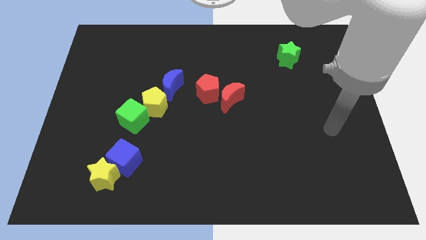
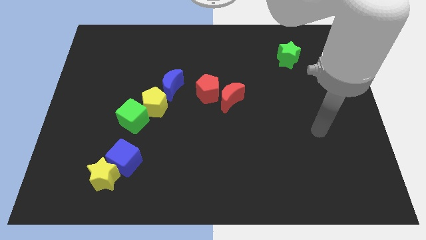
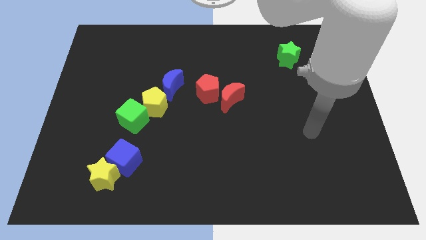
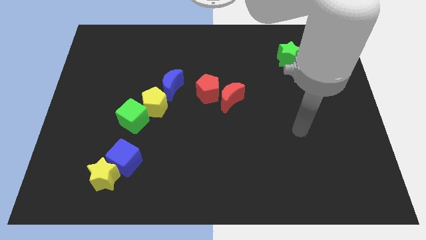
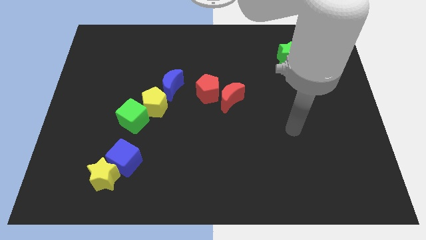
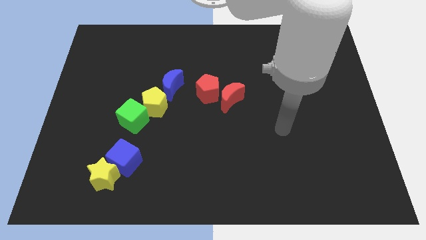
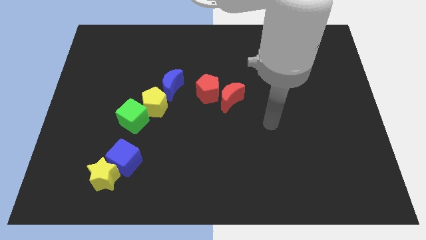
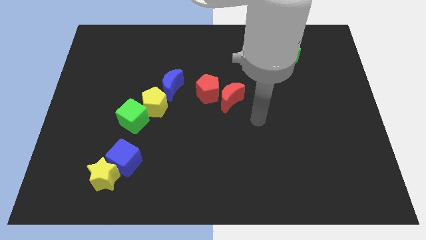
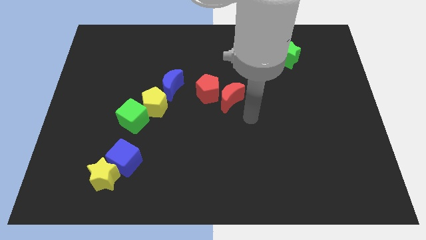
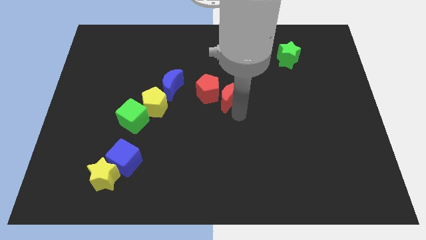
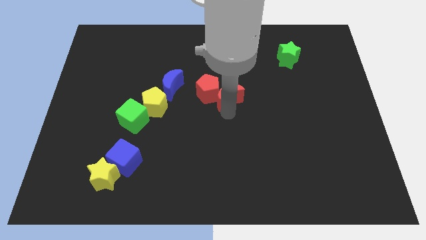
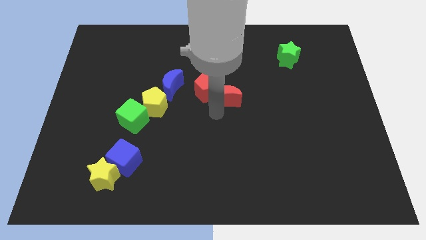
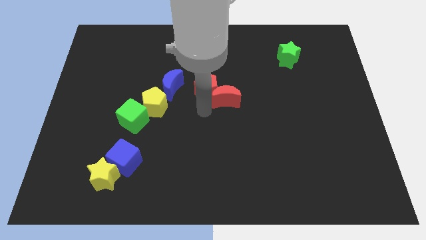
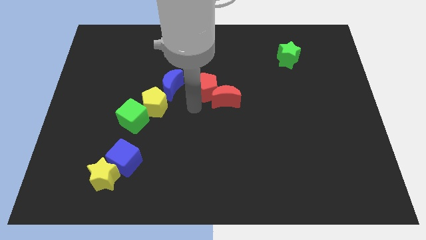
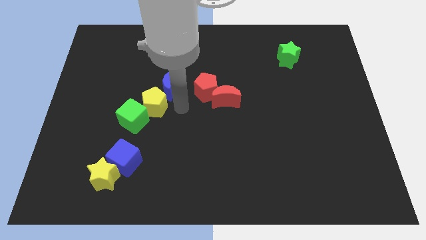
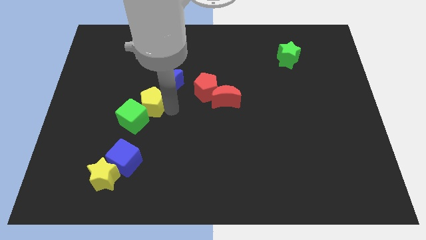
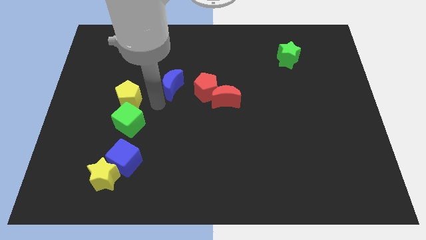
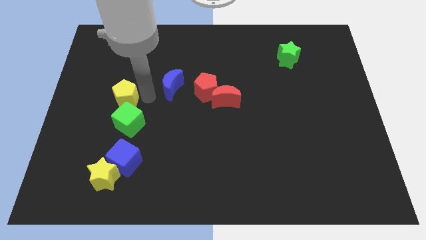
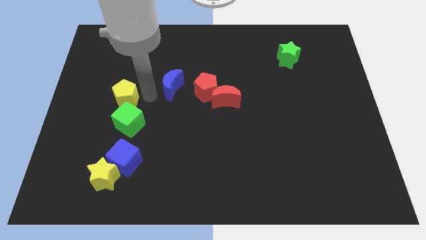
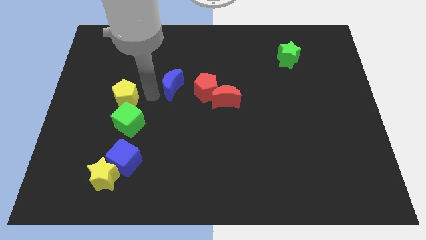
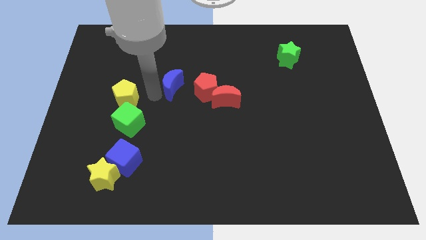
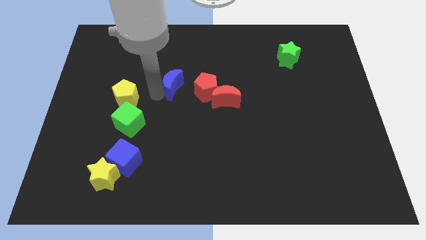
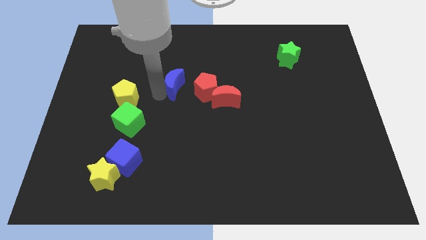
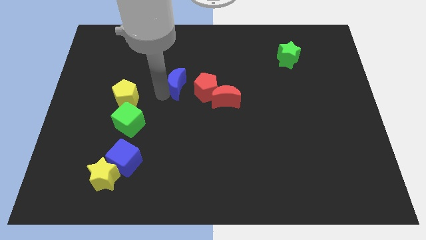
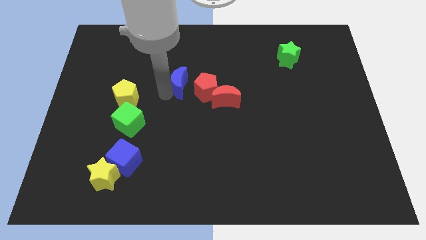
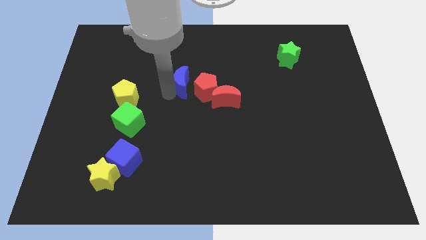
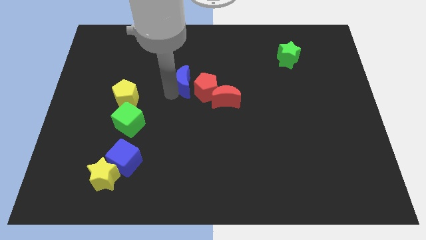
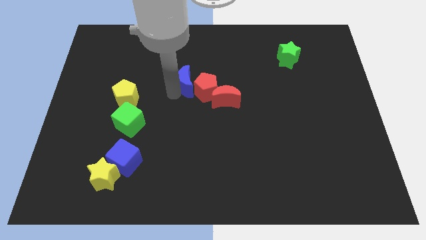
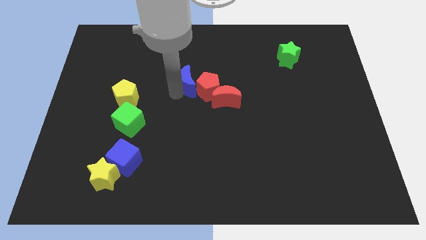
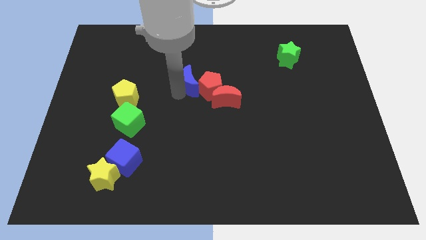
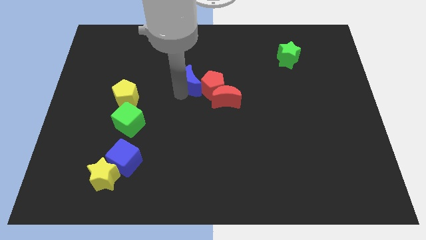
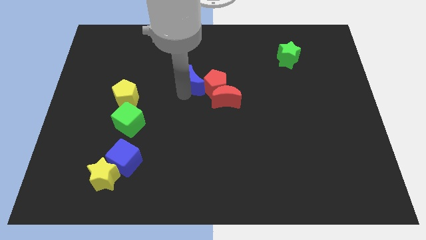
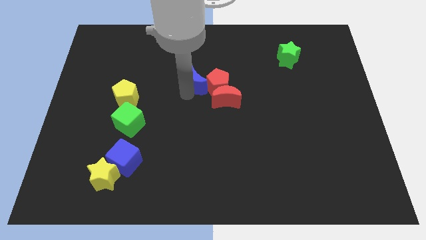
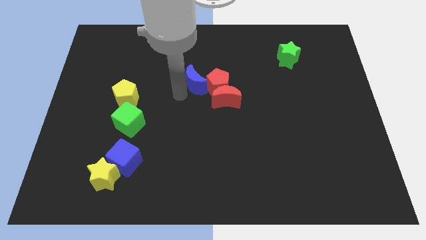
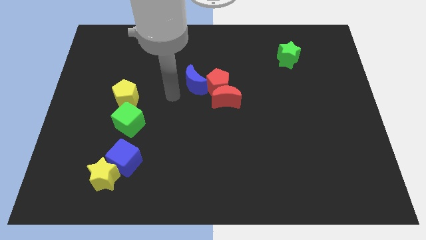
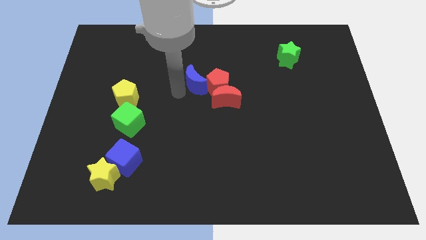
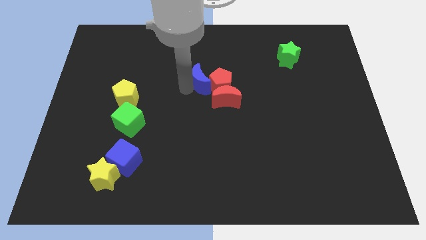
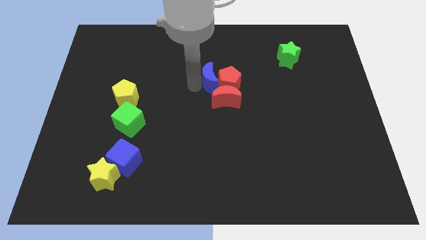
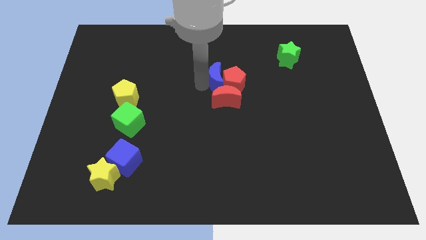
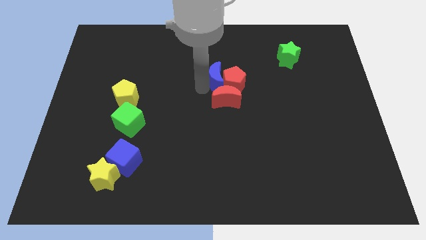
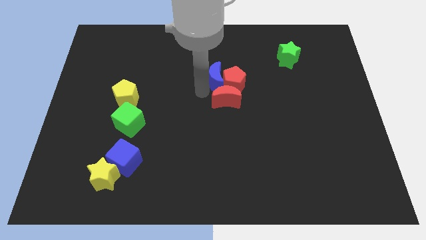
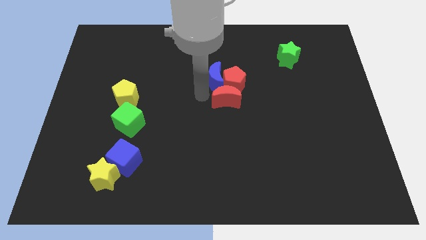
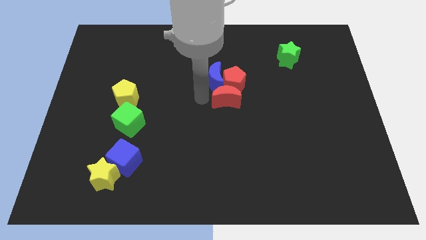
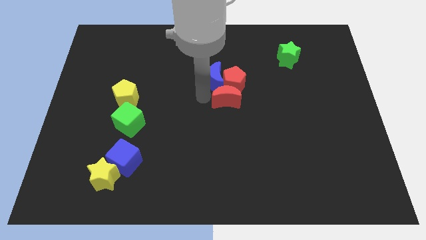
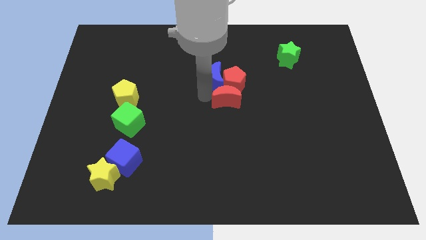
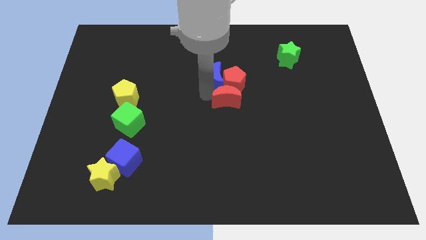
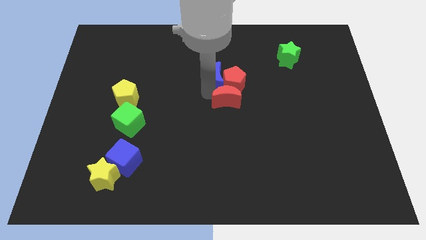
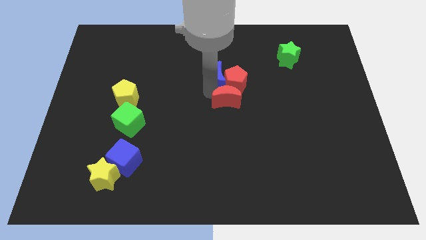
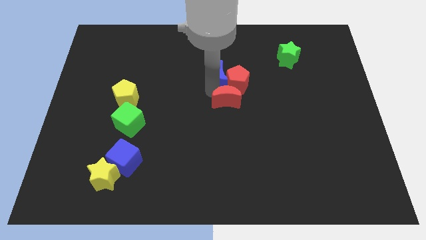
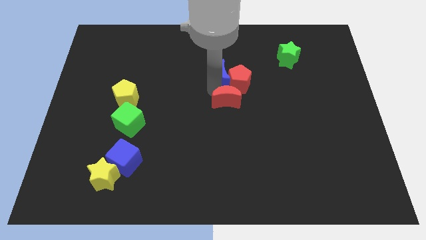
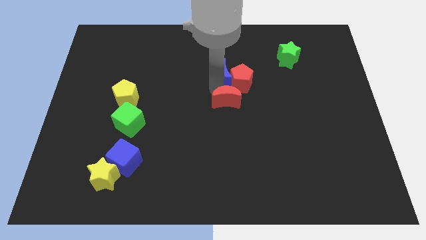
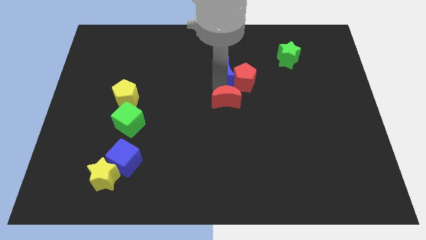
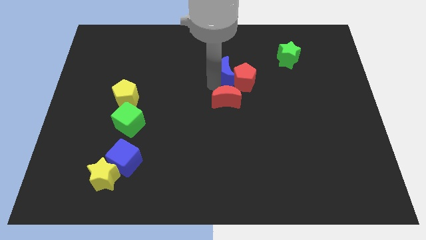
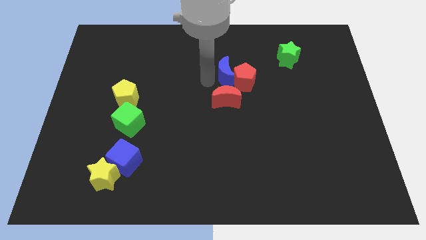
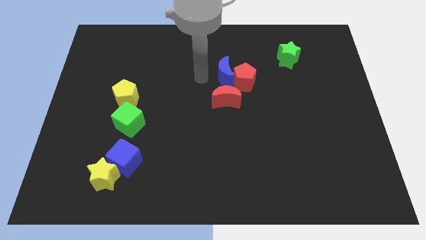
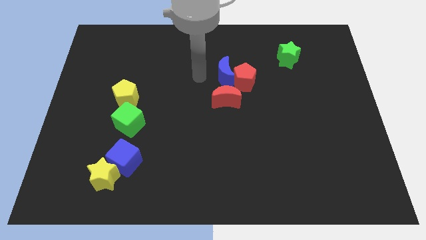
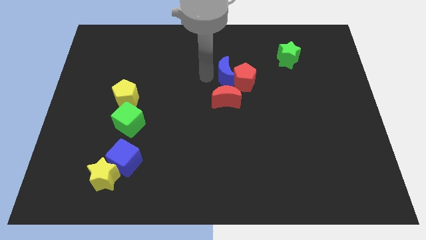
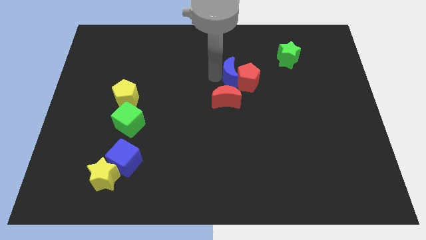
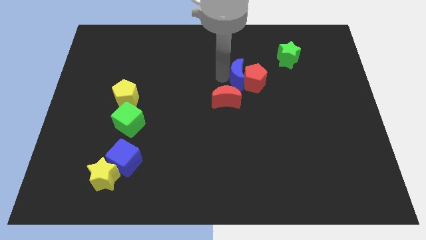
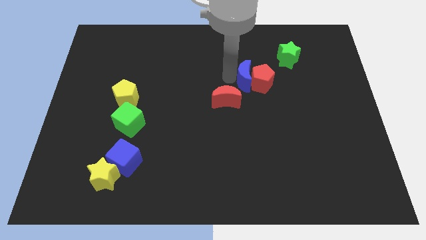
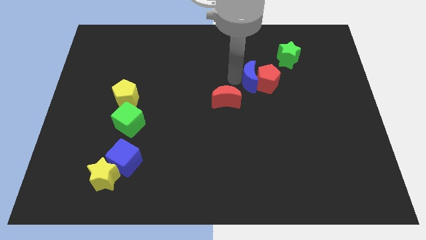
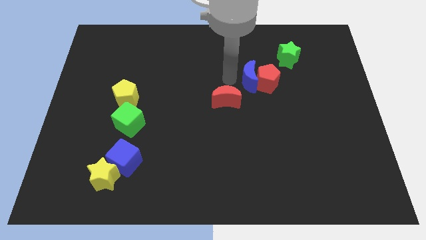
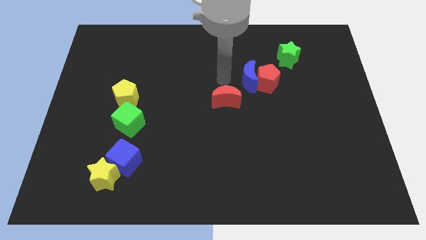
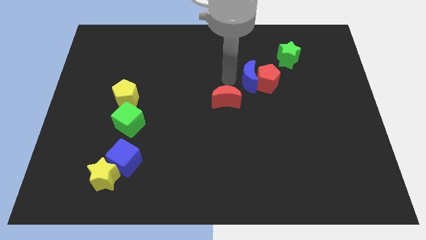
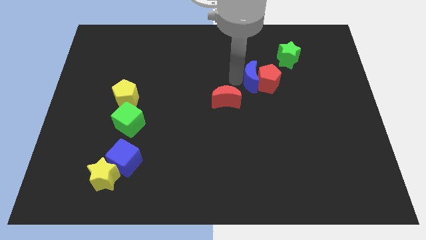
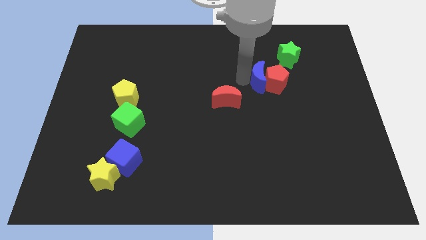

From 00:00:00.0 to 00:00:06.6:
slide the blue moon to the right

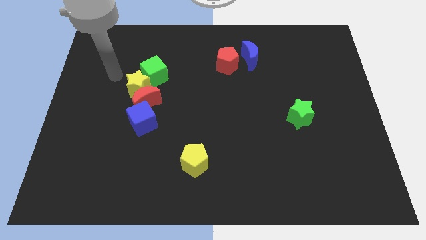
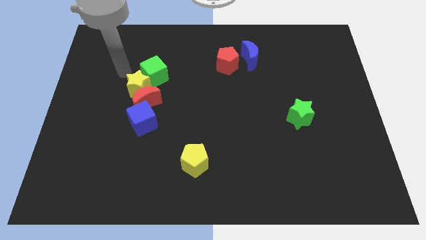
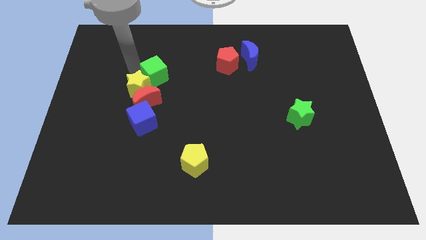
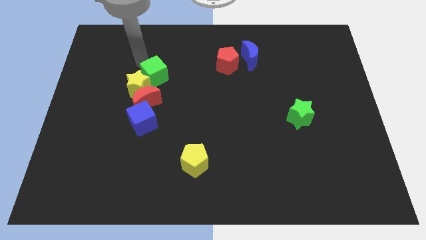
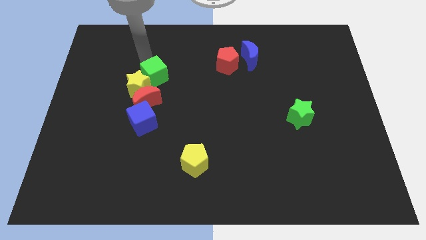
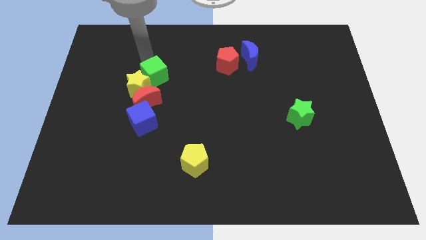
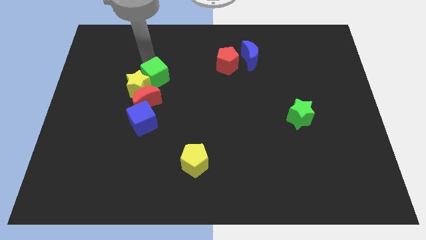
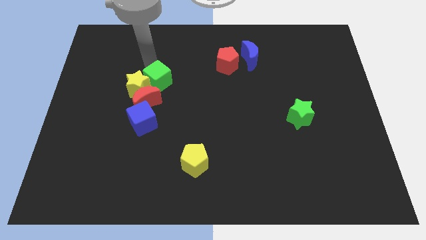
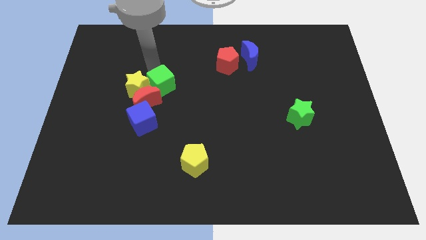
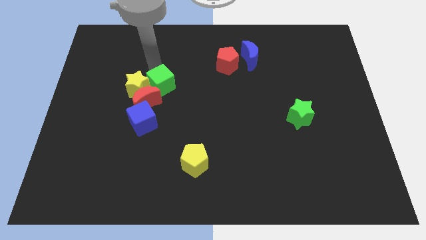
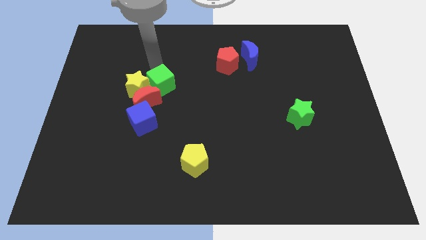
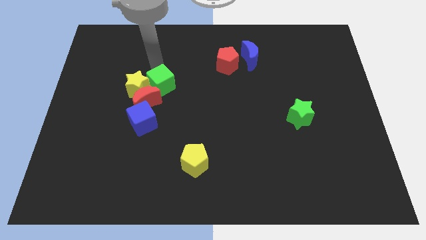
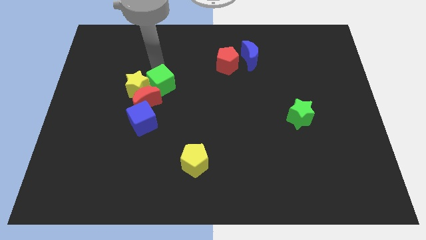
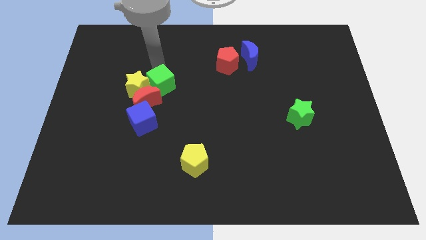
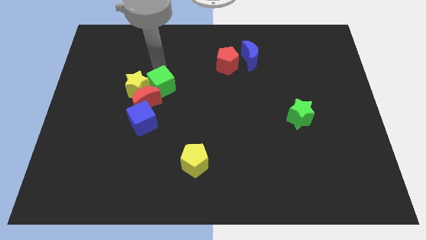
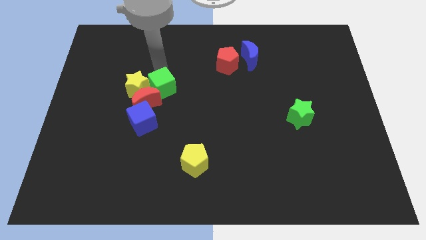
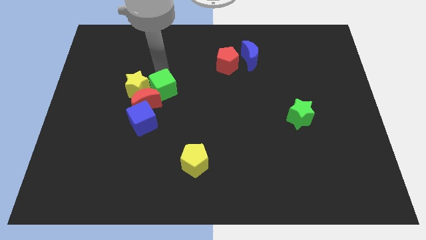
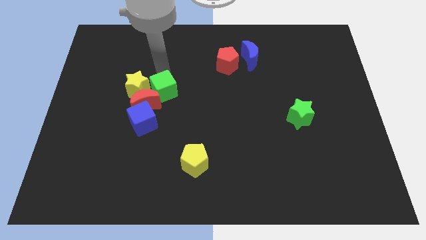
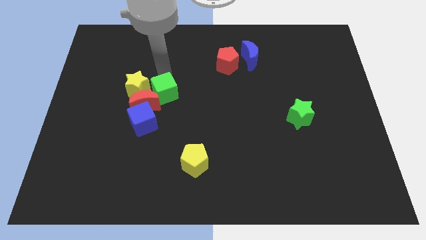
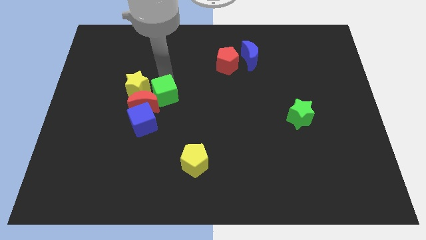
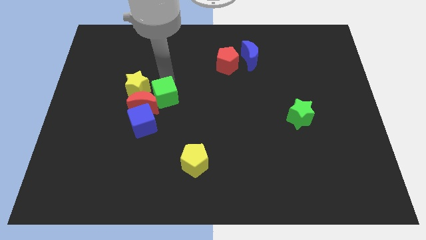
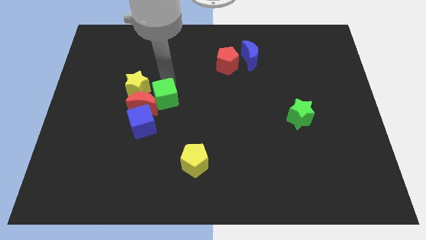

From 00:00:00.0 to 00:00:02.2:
slightly slide the green cube downwards
